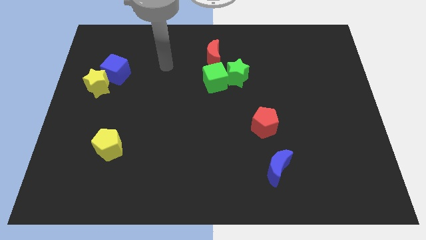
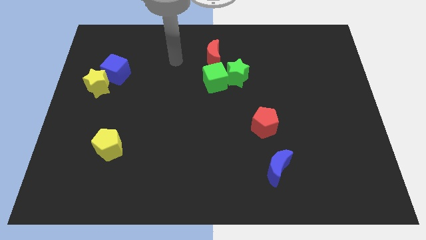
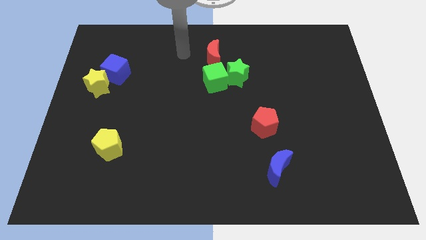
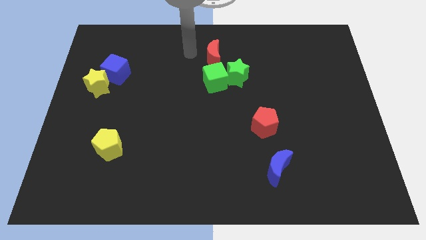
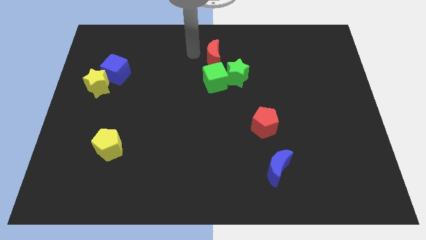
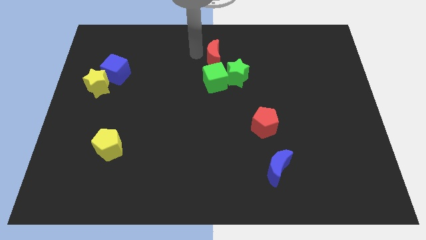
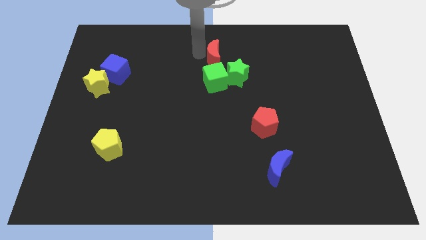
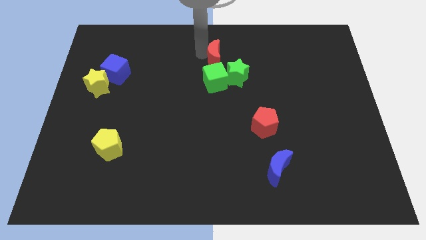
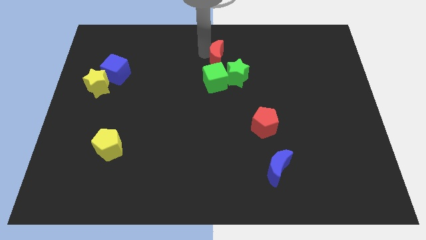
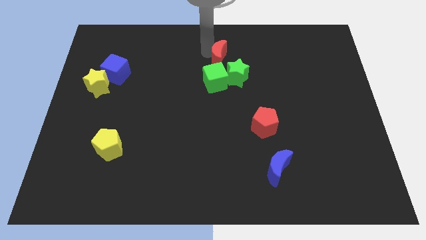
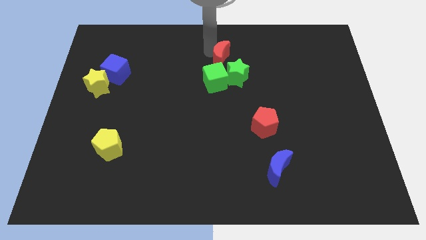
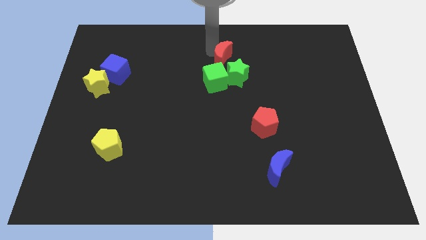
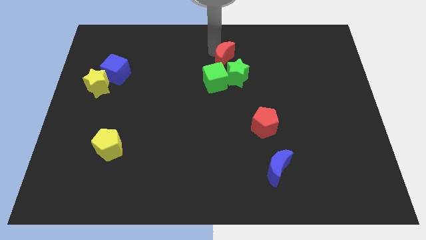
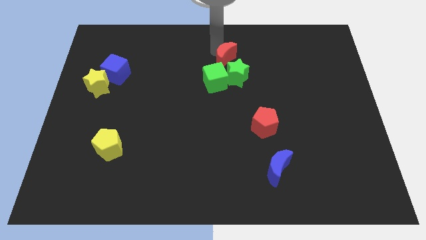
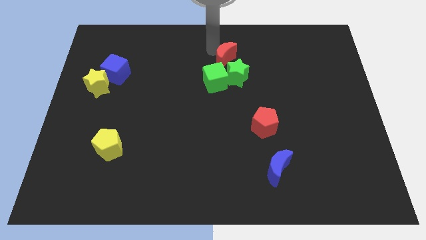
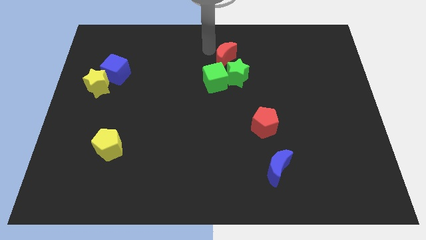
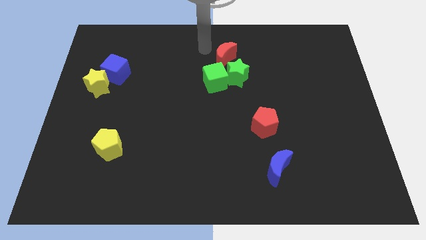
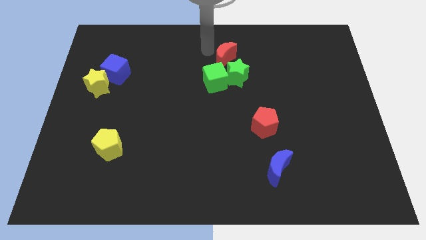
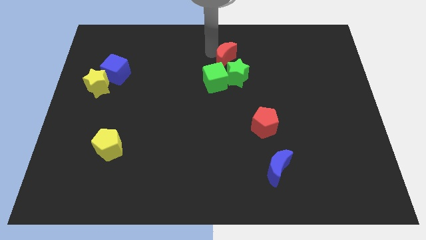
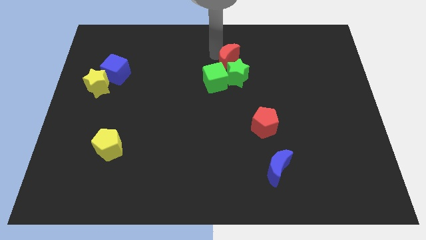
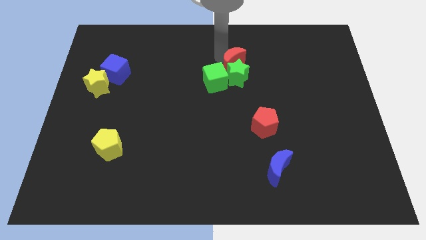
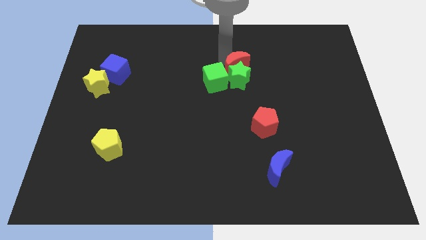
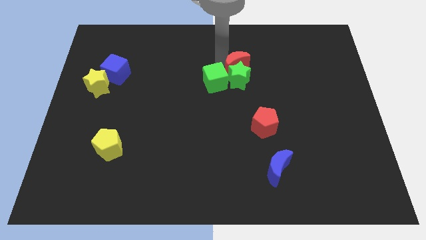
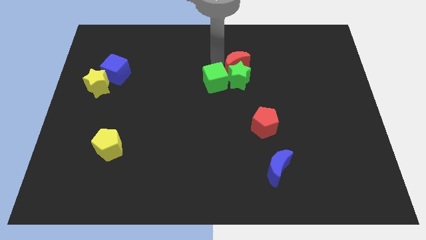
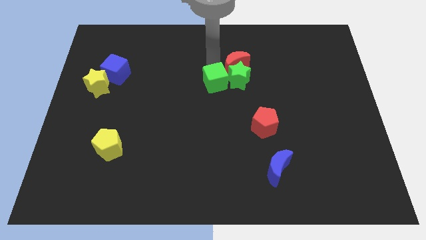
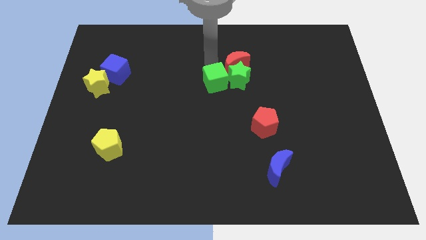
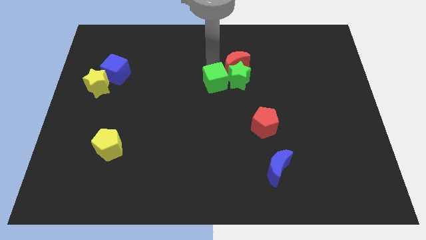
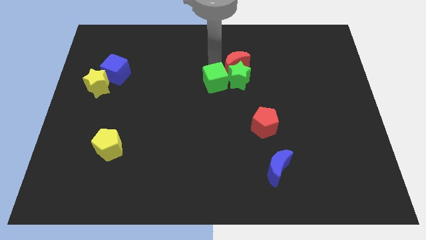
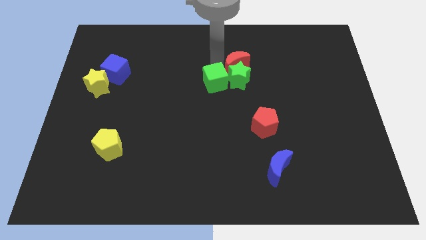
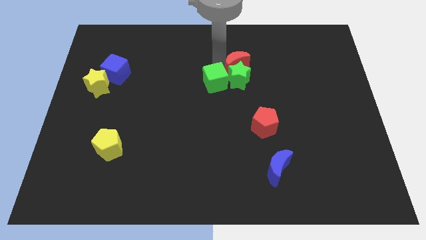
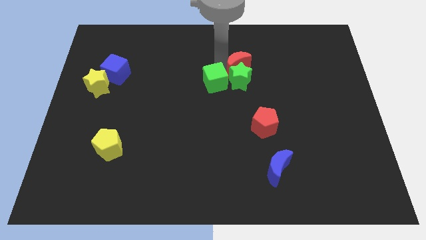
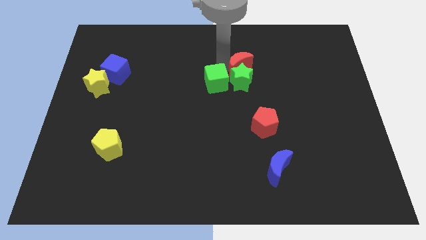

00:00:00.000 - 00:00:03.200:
push the red moon somewhat downwards and right

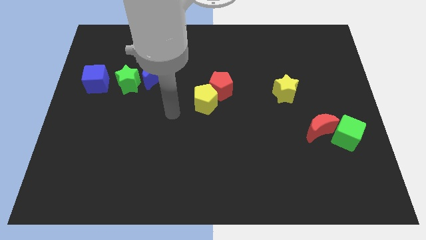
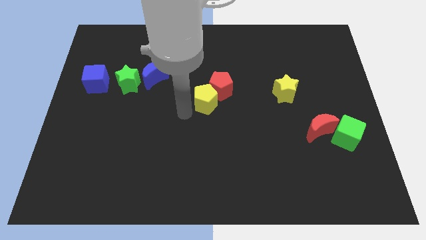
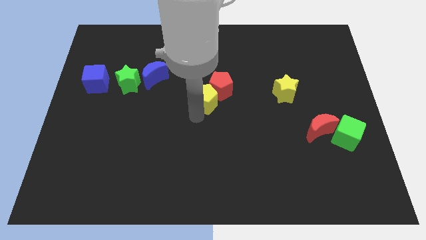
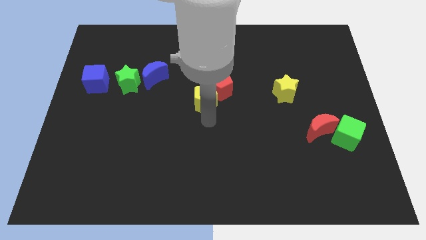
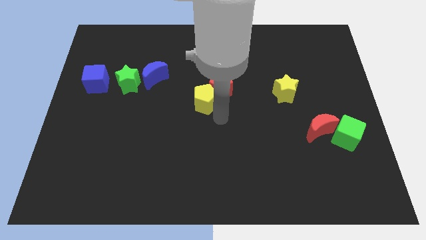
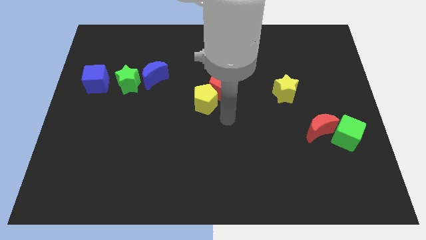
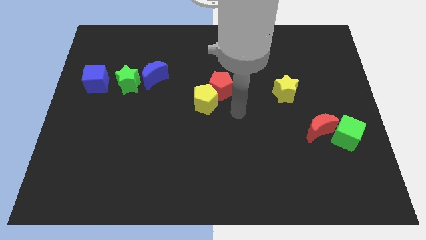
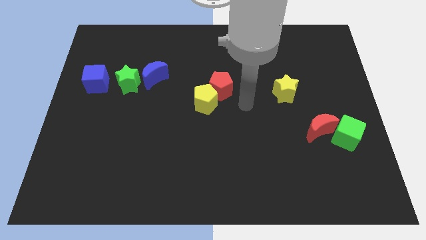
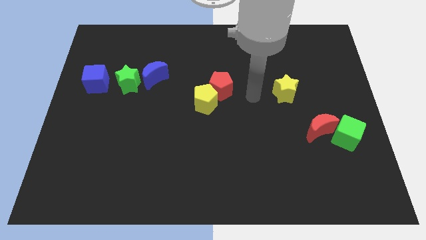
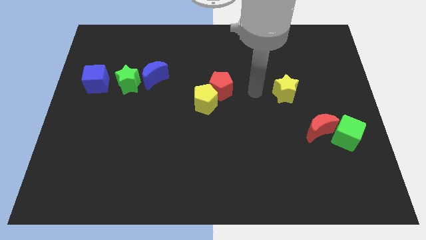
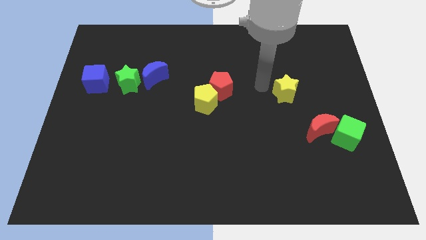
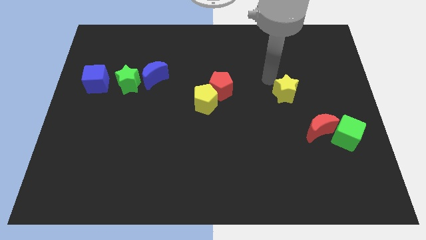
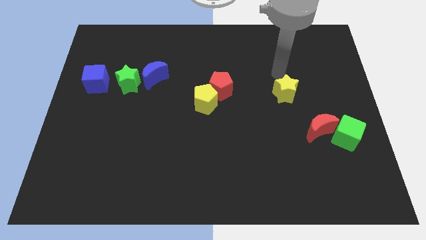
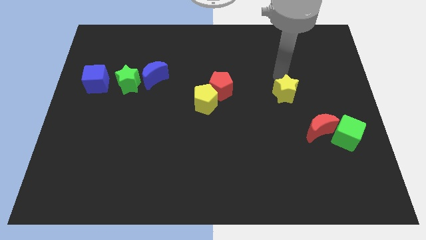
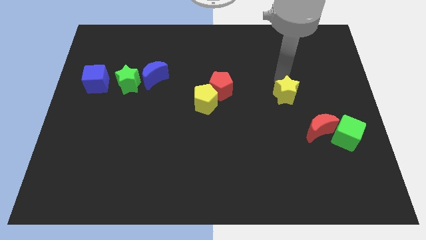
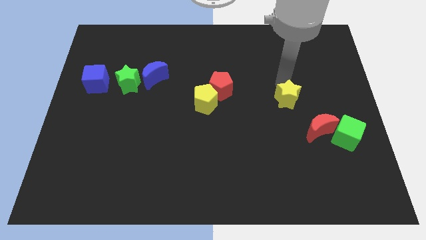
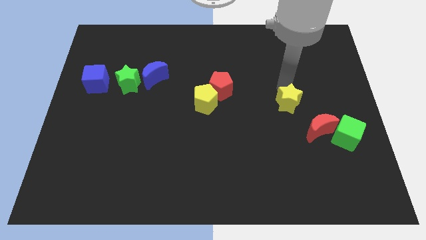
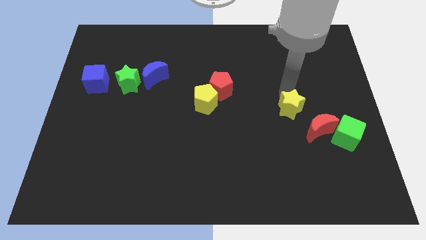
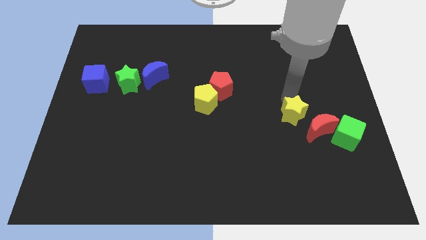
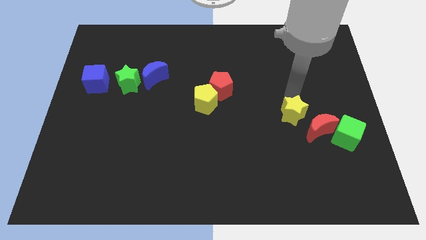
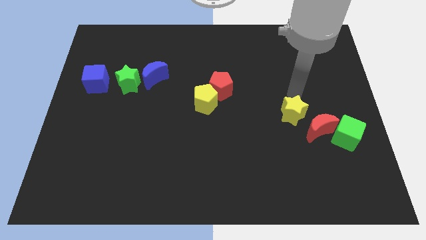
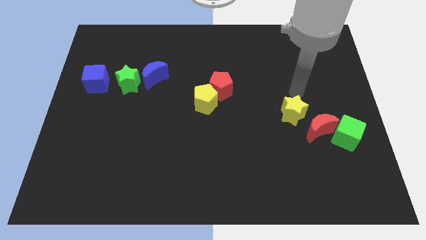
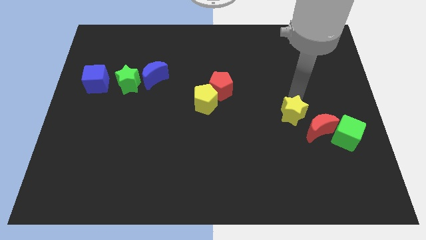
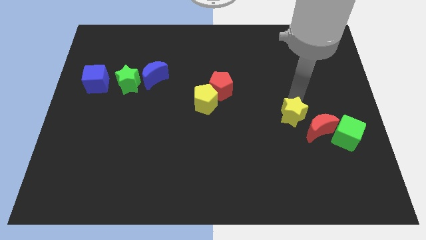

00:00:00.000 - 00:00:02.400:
push the yellow star a little bit downwards

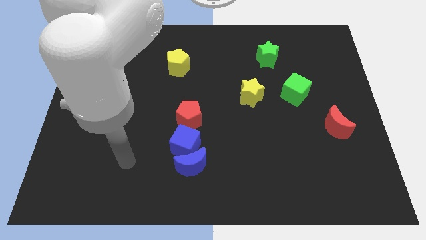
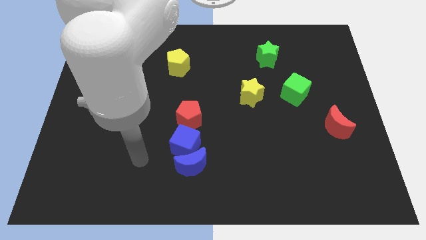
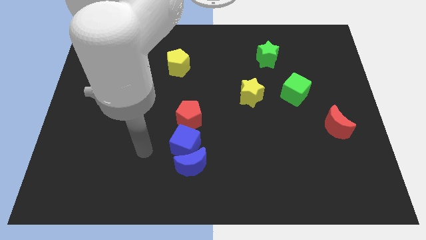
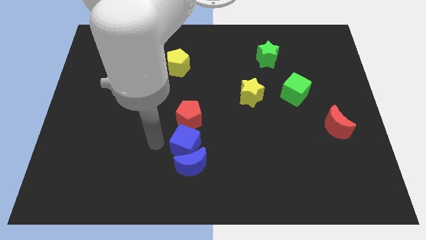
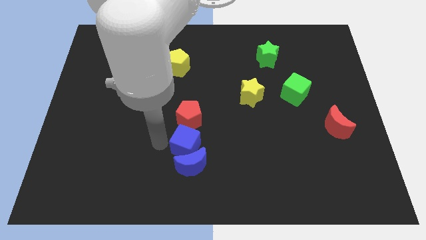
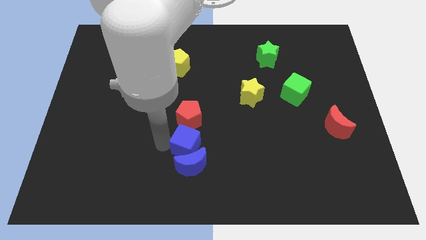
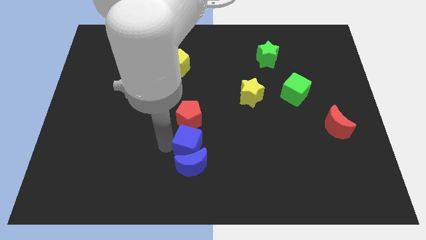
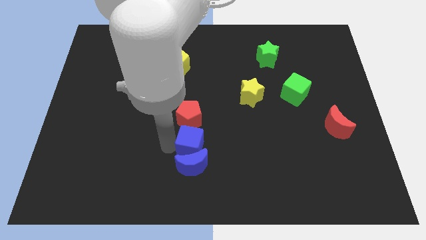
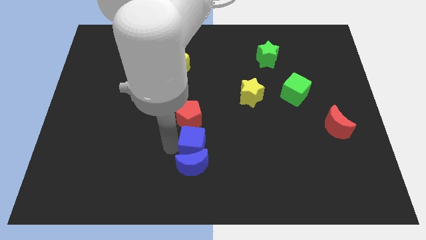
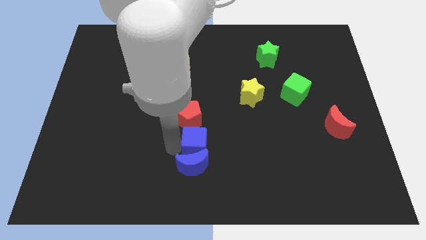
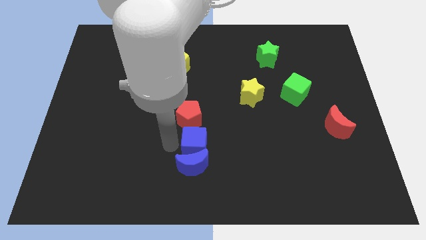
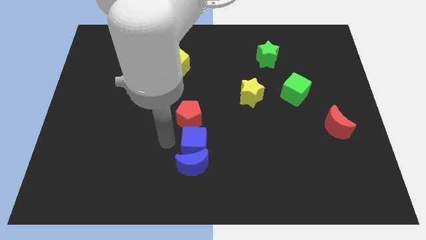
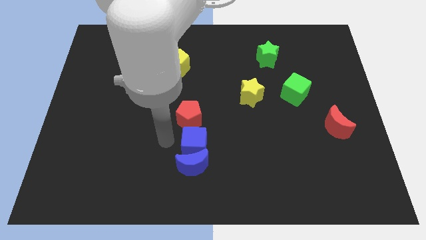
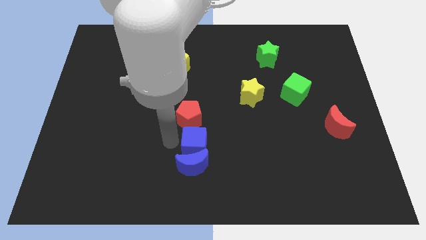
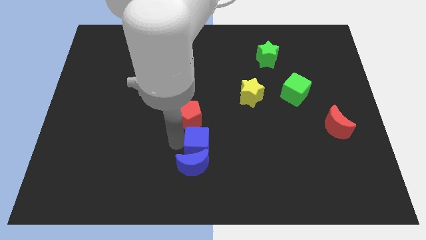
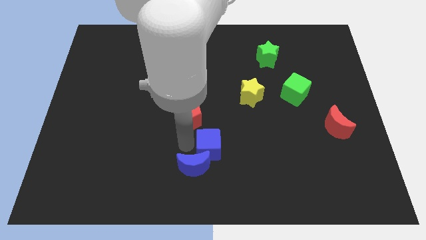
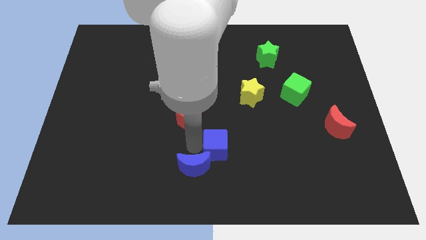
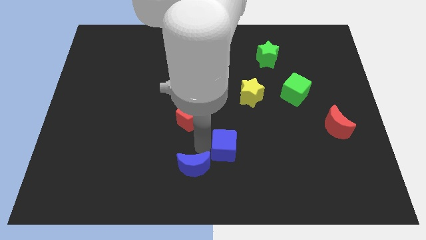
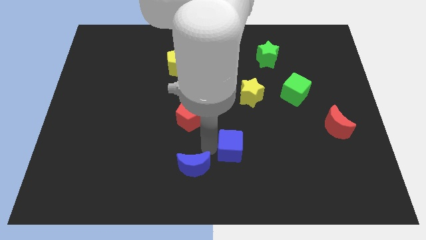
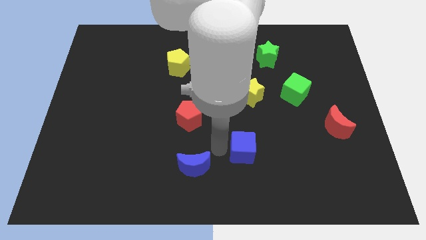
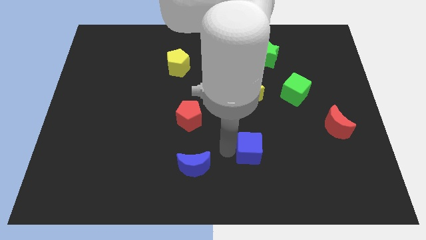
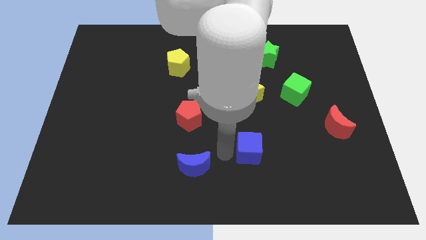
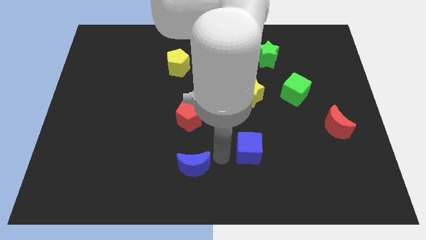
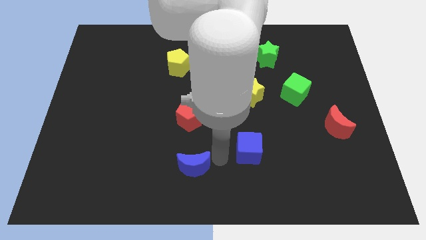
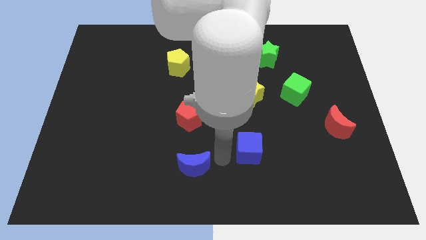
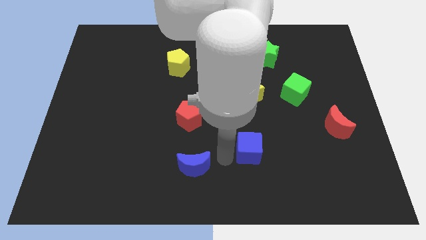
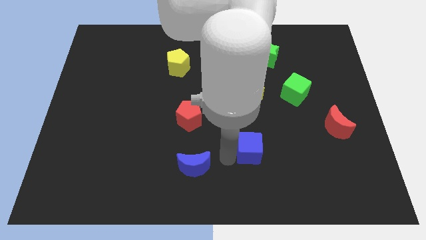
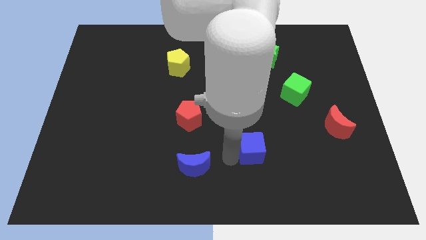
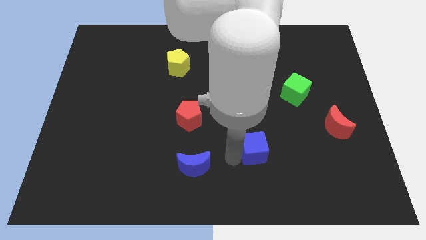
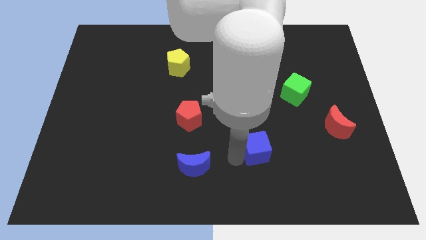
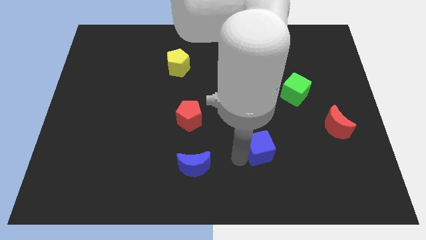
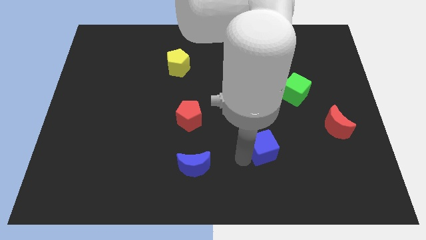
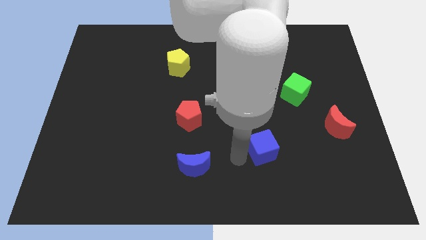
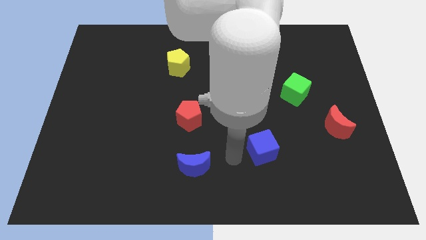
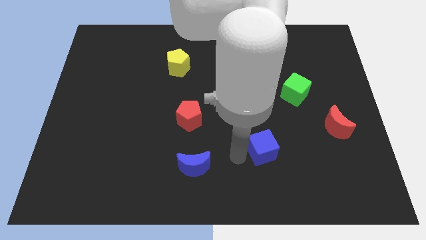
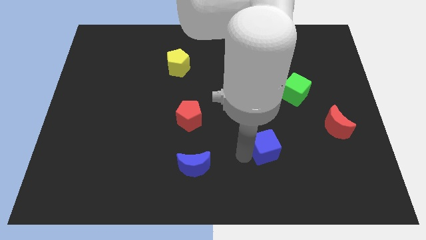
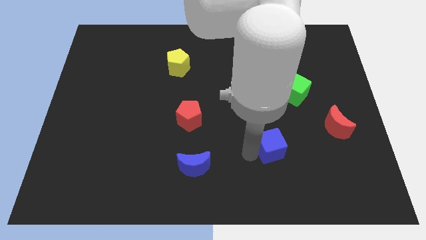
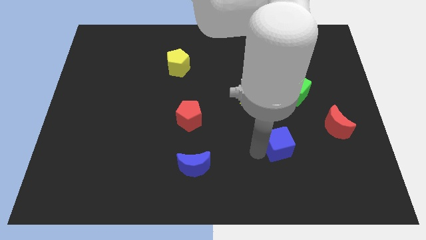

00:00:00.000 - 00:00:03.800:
push the blue cube right
